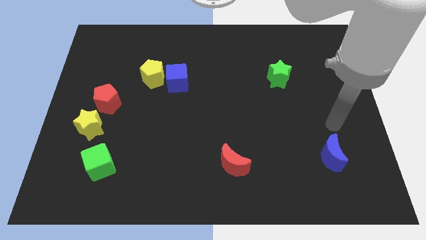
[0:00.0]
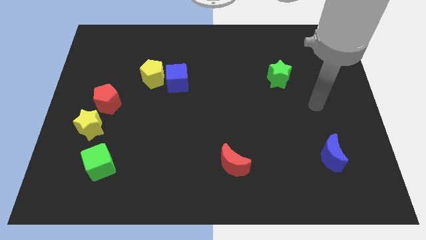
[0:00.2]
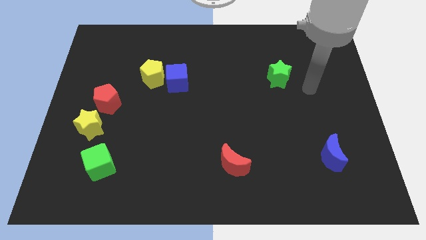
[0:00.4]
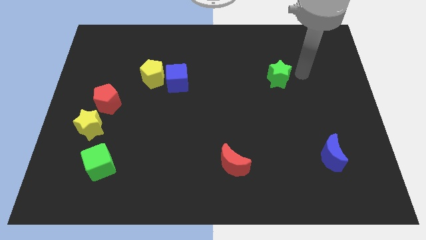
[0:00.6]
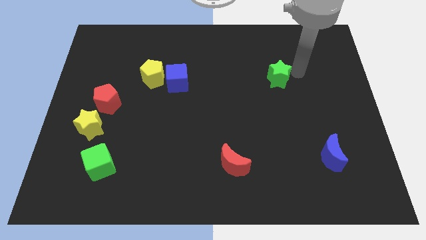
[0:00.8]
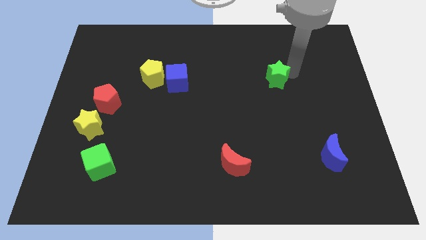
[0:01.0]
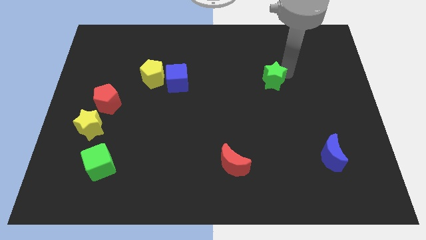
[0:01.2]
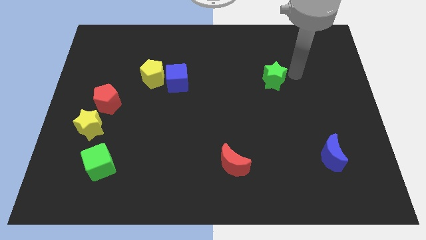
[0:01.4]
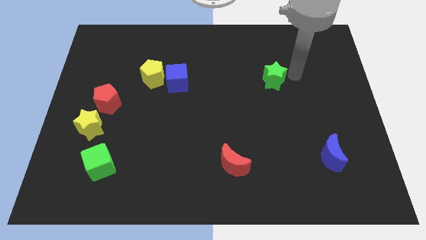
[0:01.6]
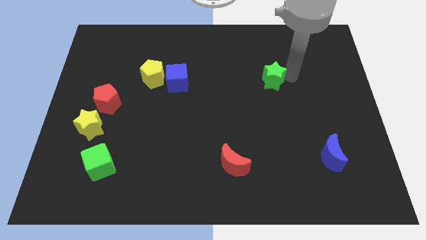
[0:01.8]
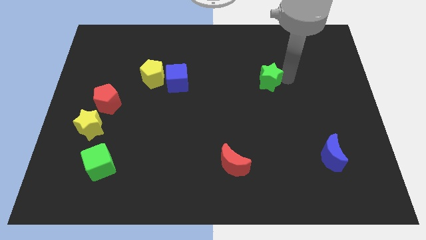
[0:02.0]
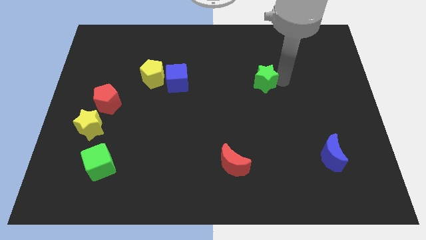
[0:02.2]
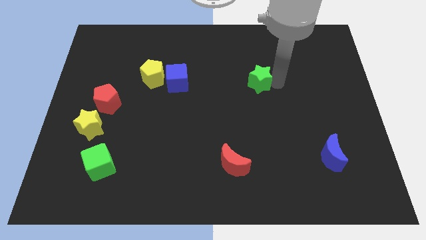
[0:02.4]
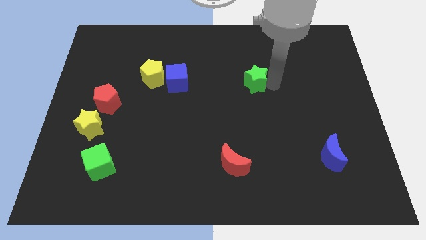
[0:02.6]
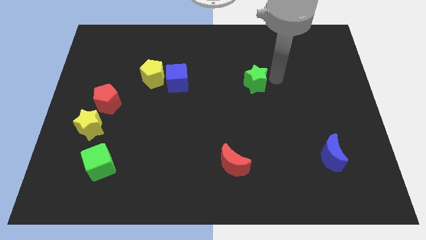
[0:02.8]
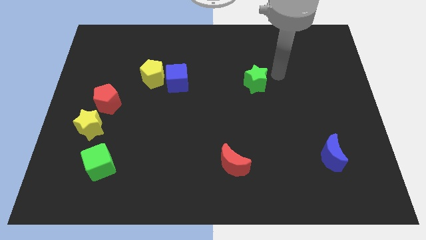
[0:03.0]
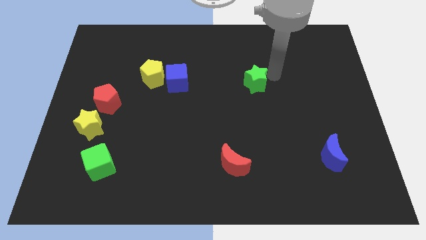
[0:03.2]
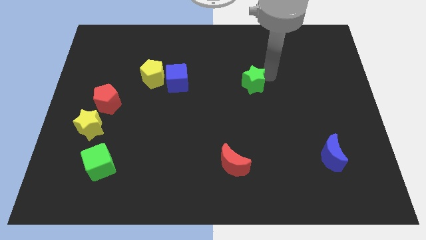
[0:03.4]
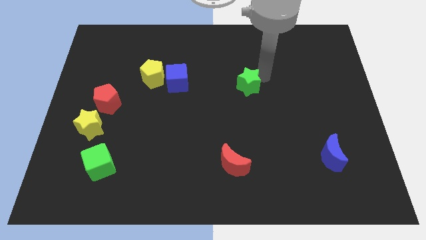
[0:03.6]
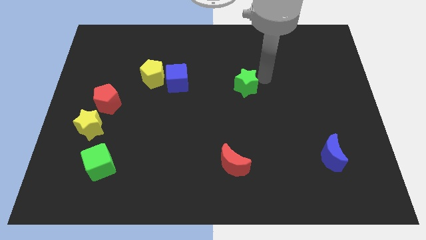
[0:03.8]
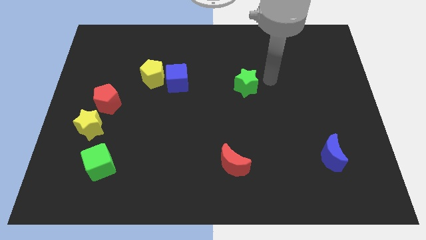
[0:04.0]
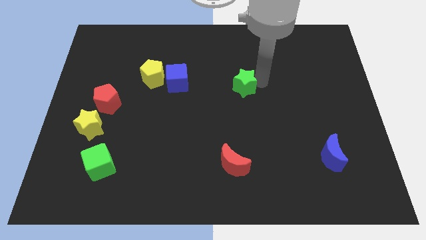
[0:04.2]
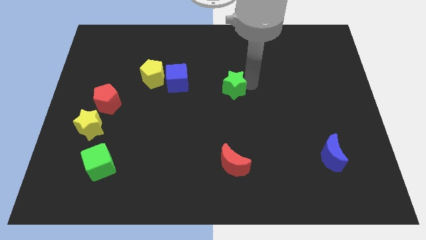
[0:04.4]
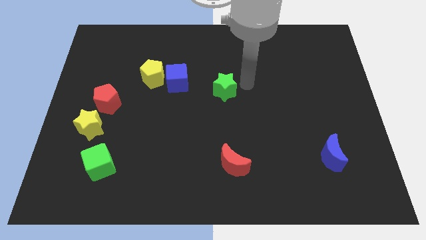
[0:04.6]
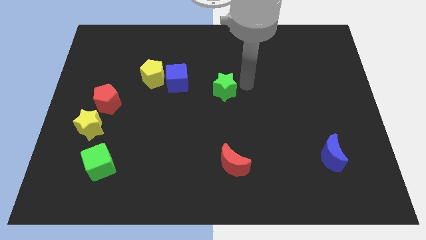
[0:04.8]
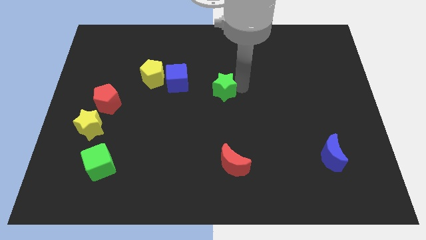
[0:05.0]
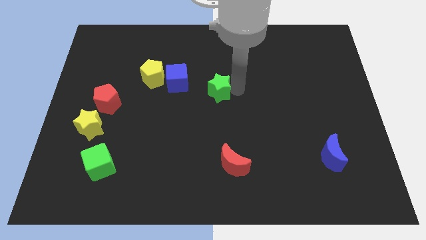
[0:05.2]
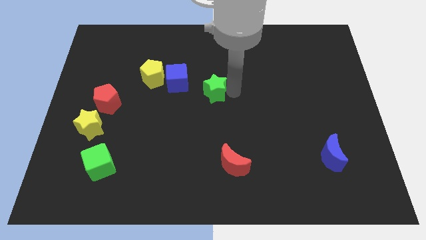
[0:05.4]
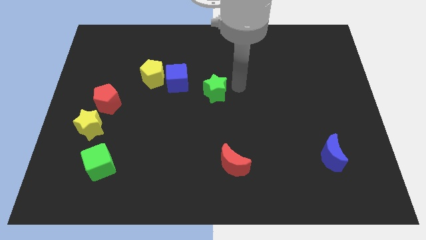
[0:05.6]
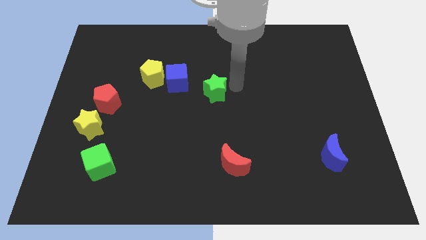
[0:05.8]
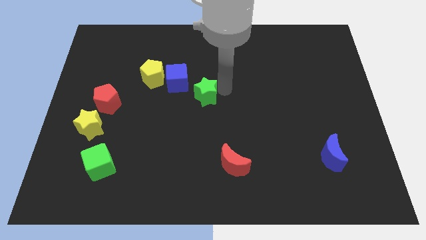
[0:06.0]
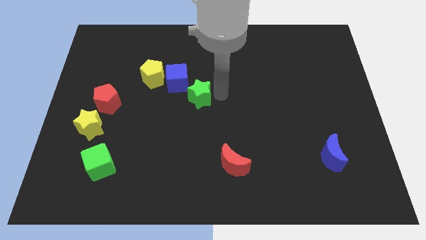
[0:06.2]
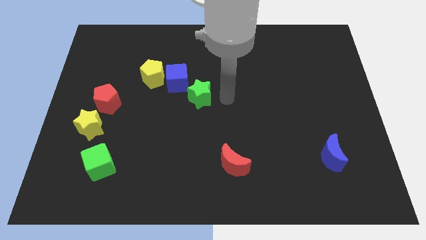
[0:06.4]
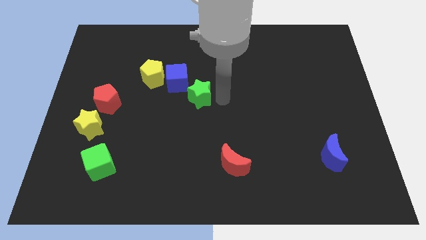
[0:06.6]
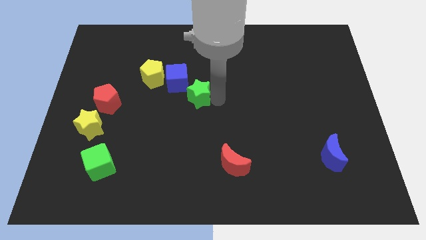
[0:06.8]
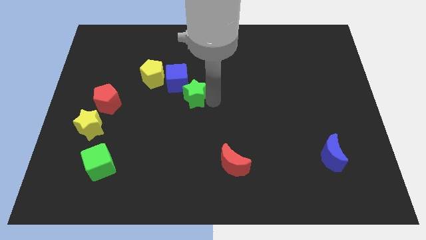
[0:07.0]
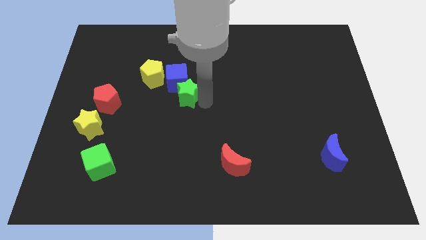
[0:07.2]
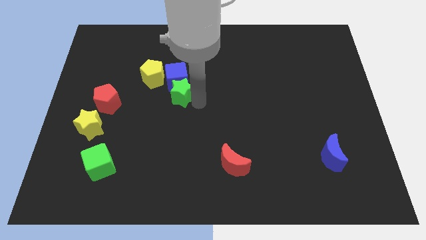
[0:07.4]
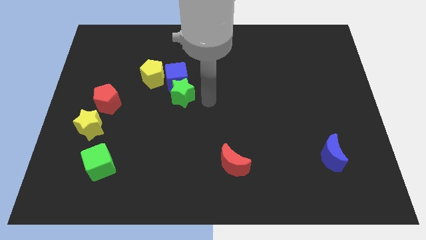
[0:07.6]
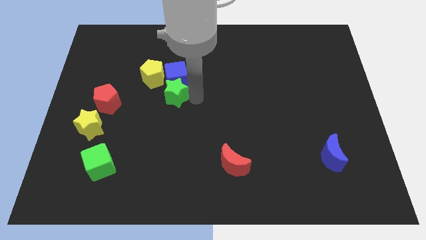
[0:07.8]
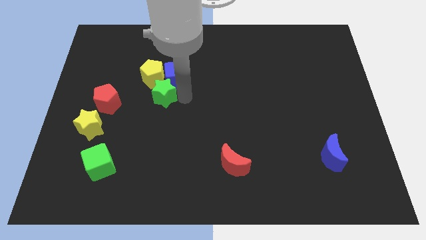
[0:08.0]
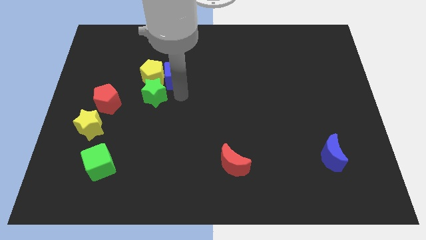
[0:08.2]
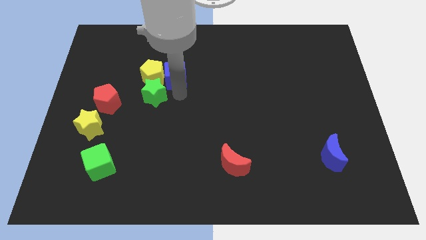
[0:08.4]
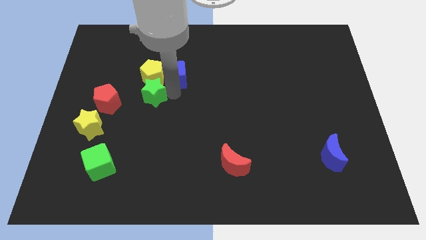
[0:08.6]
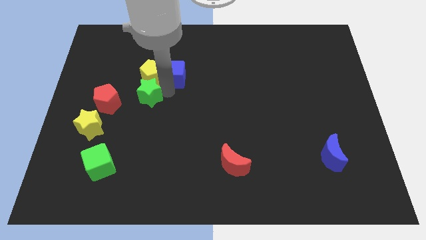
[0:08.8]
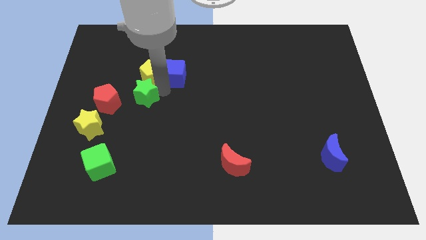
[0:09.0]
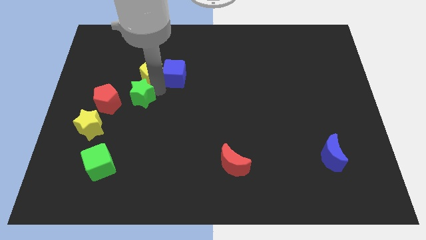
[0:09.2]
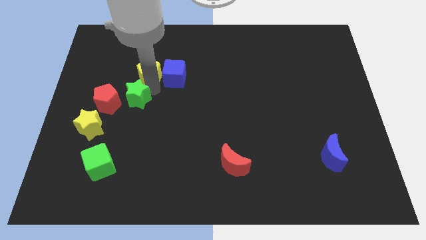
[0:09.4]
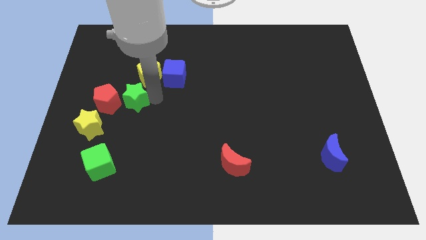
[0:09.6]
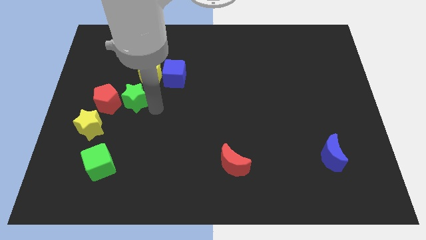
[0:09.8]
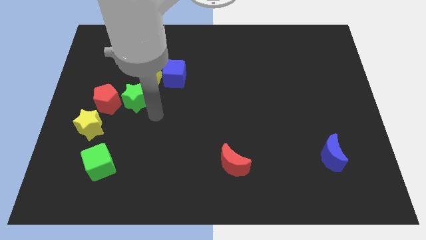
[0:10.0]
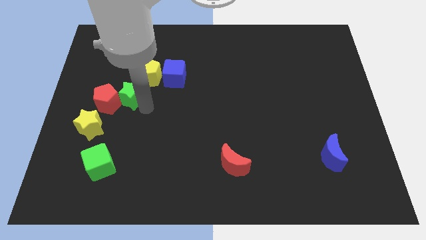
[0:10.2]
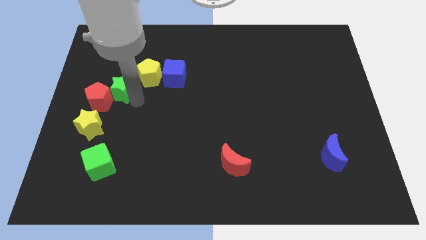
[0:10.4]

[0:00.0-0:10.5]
push the green star left of the yellow pentagon
